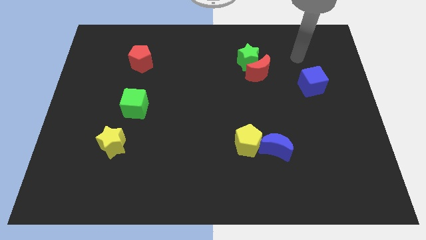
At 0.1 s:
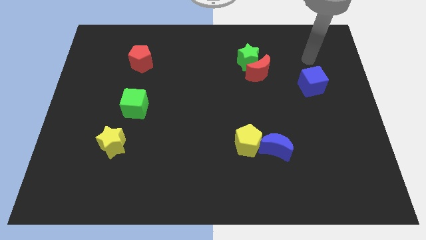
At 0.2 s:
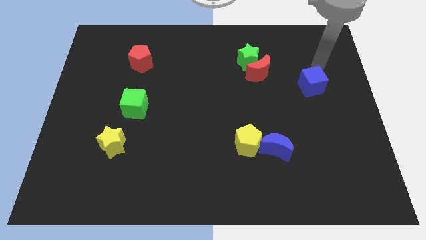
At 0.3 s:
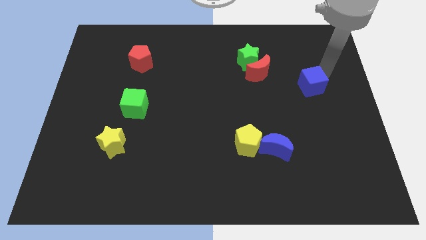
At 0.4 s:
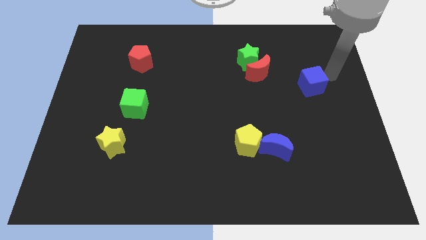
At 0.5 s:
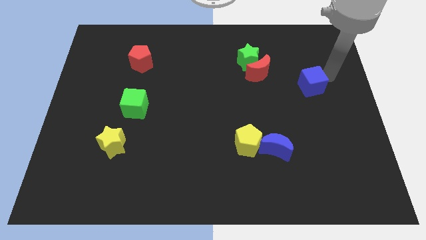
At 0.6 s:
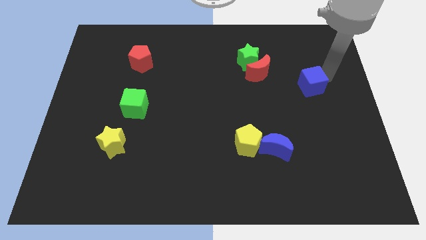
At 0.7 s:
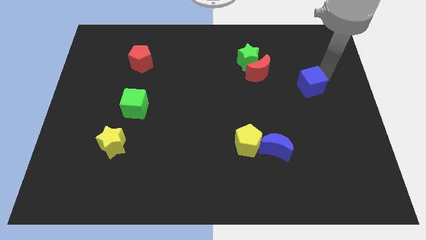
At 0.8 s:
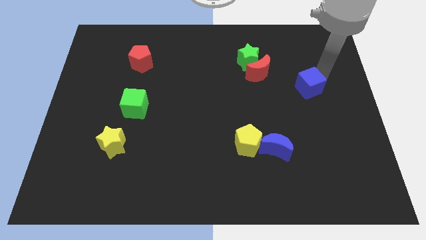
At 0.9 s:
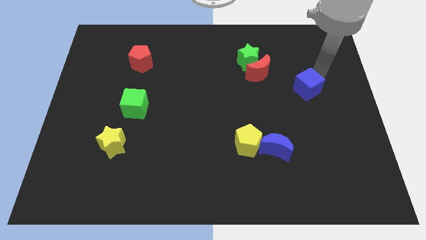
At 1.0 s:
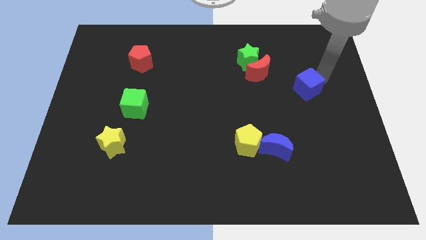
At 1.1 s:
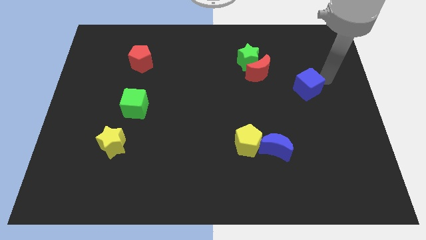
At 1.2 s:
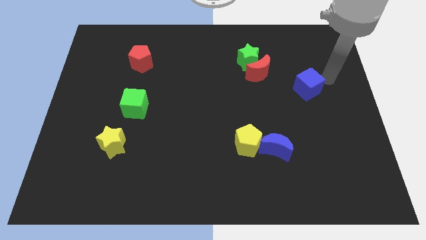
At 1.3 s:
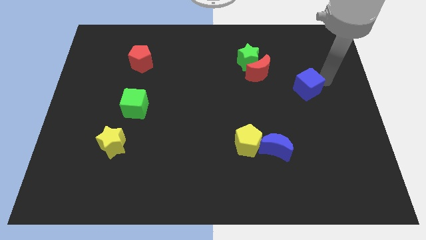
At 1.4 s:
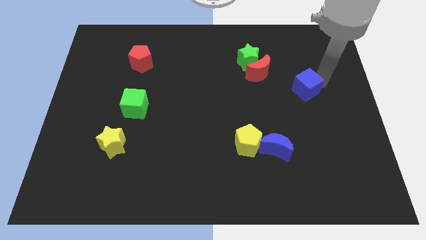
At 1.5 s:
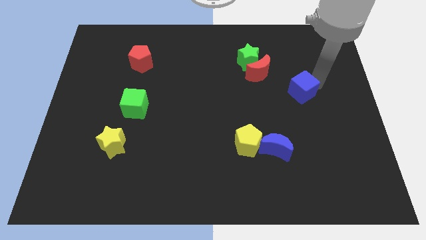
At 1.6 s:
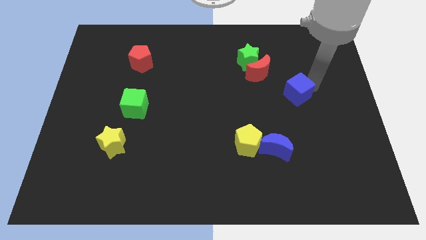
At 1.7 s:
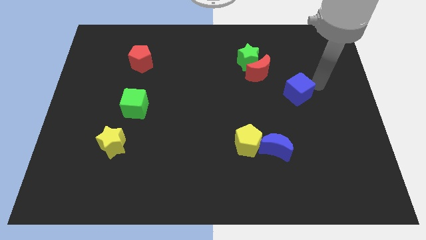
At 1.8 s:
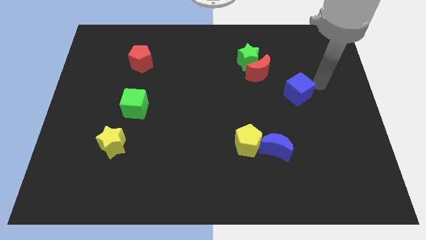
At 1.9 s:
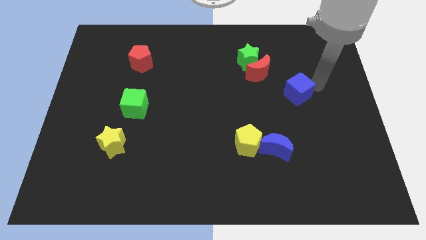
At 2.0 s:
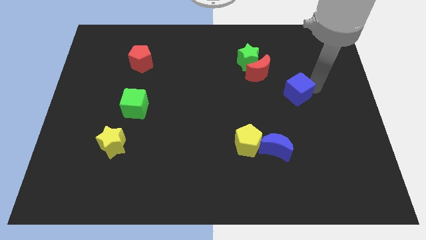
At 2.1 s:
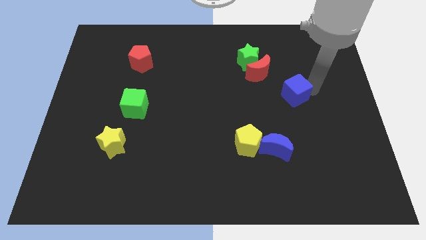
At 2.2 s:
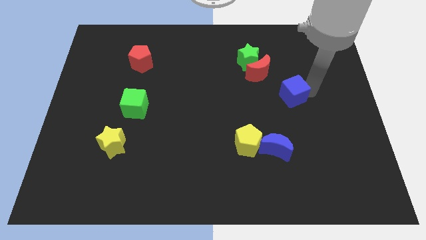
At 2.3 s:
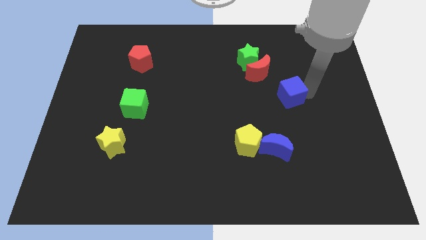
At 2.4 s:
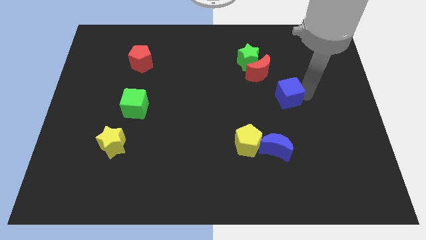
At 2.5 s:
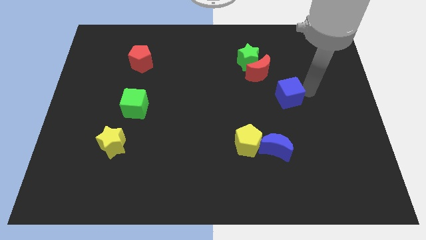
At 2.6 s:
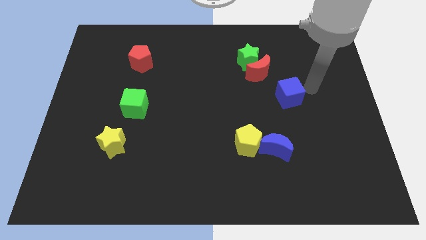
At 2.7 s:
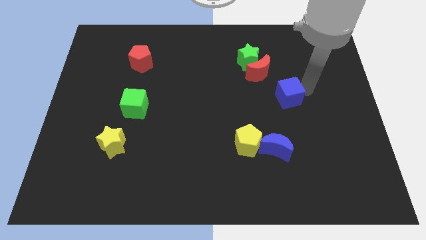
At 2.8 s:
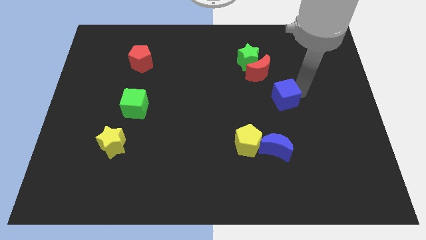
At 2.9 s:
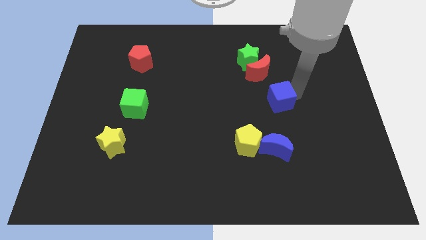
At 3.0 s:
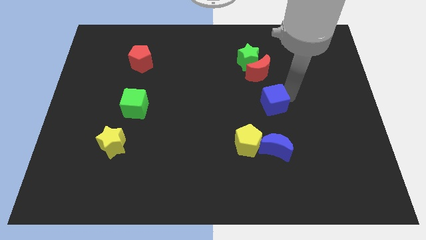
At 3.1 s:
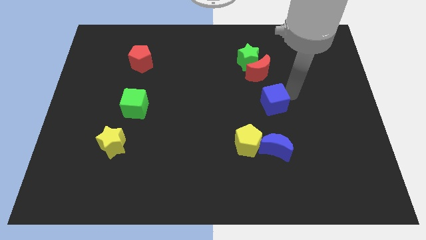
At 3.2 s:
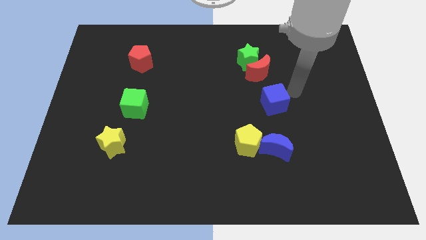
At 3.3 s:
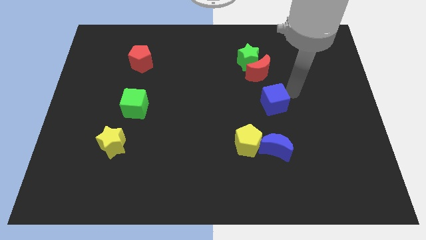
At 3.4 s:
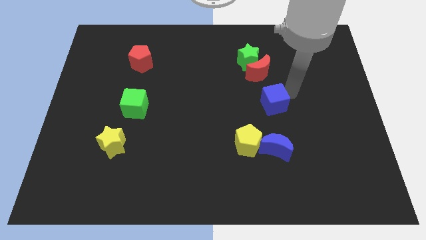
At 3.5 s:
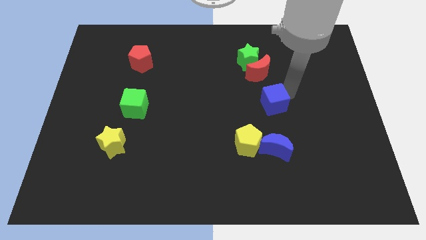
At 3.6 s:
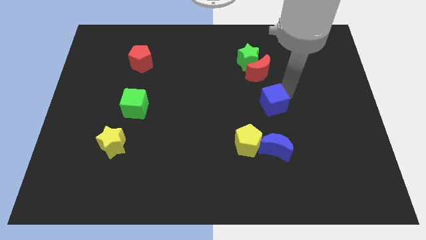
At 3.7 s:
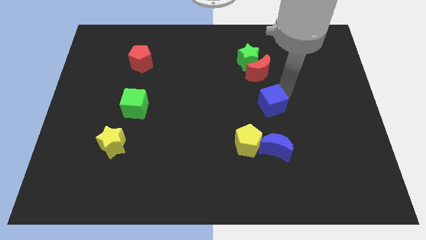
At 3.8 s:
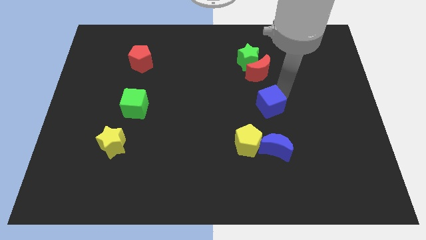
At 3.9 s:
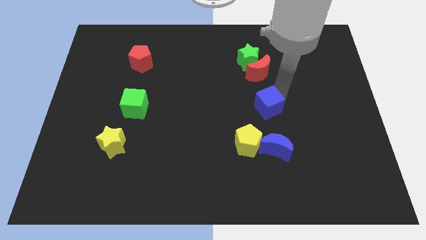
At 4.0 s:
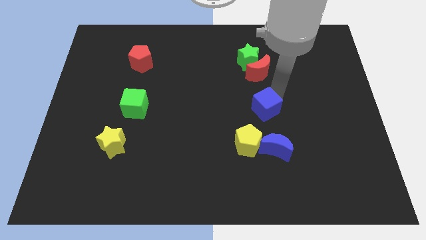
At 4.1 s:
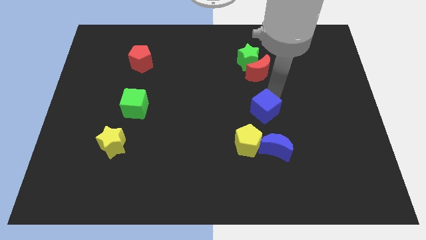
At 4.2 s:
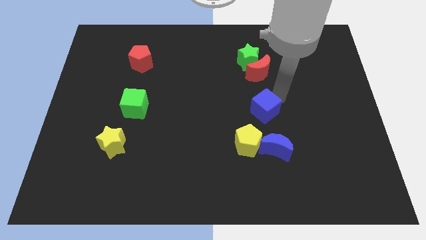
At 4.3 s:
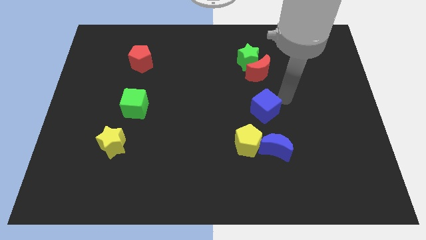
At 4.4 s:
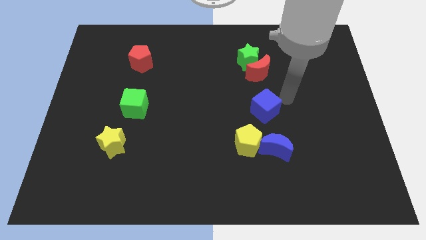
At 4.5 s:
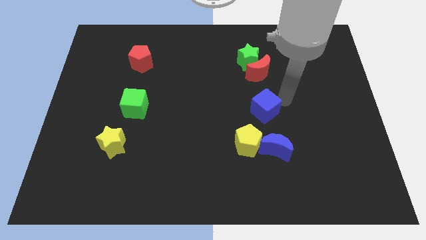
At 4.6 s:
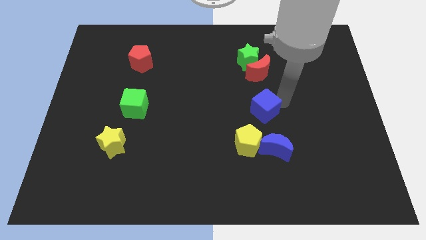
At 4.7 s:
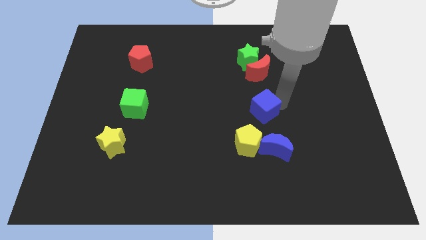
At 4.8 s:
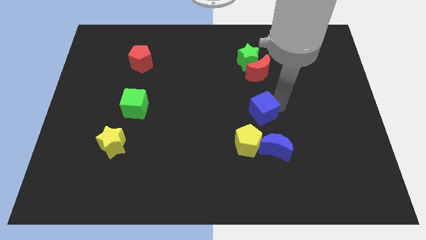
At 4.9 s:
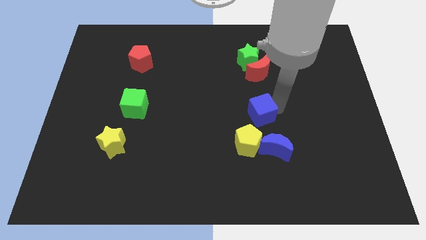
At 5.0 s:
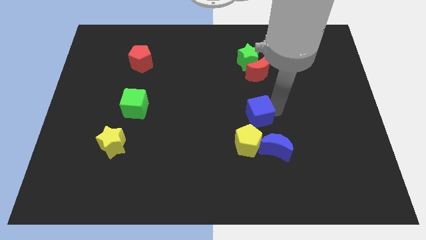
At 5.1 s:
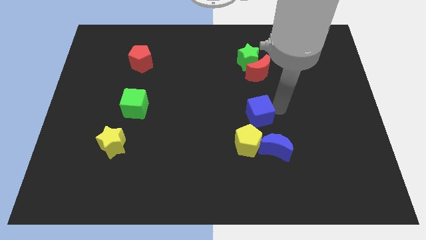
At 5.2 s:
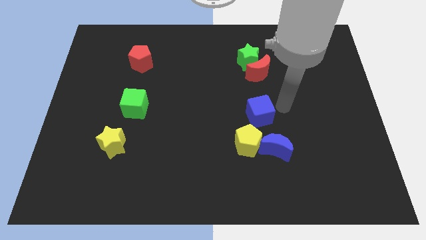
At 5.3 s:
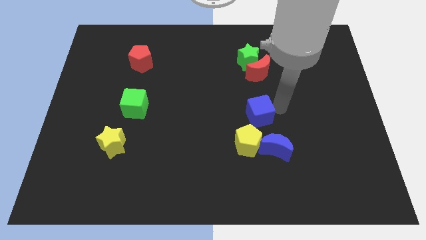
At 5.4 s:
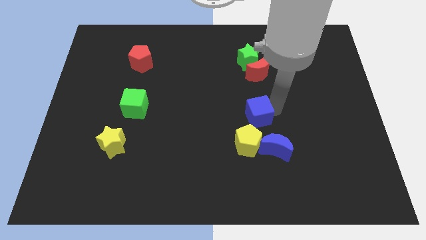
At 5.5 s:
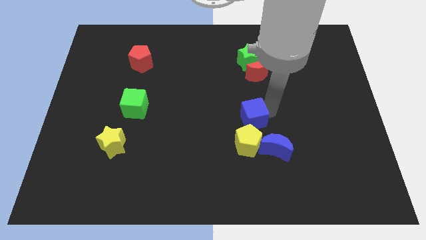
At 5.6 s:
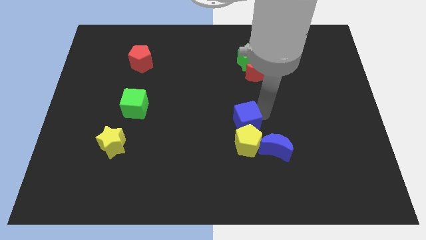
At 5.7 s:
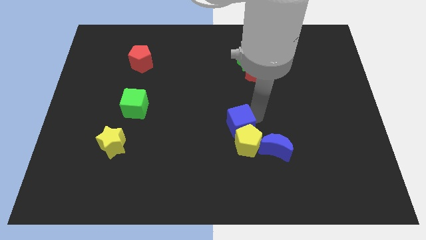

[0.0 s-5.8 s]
push the blue cube down and left diagonally

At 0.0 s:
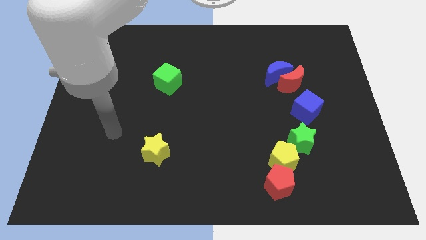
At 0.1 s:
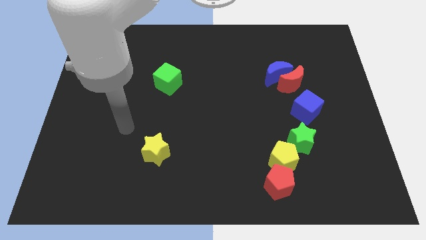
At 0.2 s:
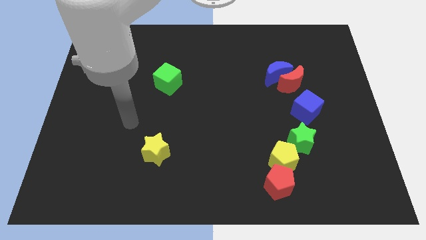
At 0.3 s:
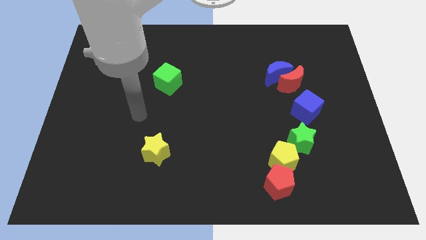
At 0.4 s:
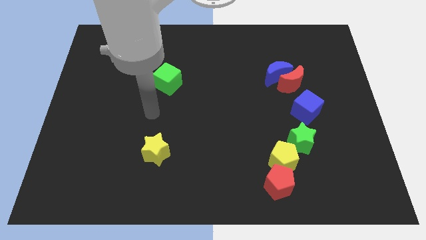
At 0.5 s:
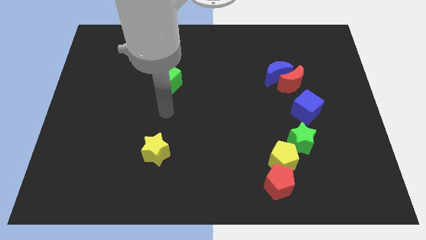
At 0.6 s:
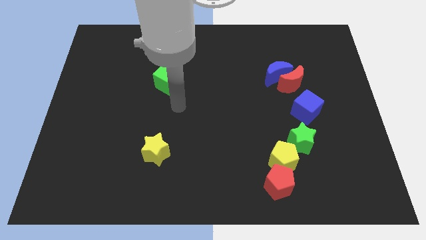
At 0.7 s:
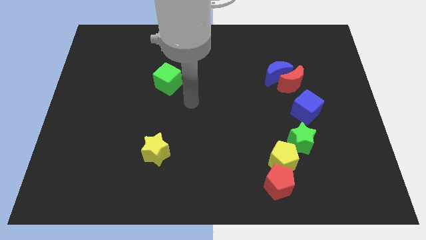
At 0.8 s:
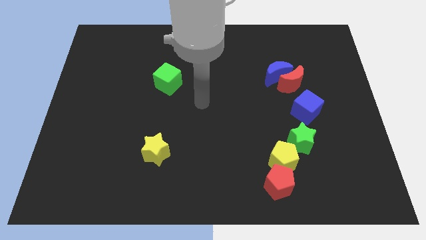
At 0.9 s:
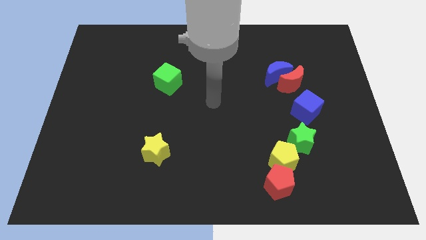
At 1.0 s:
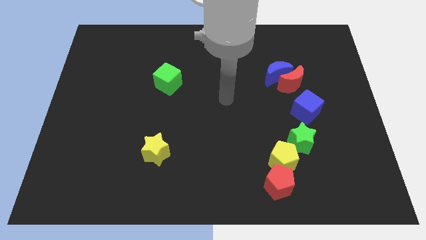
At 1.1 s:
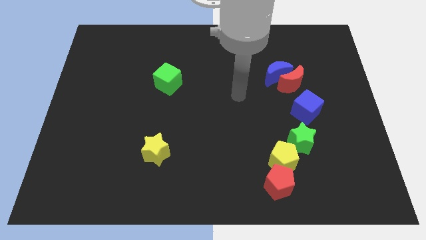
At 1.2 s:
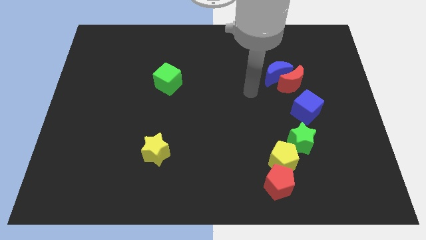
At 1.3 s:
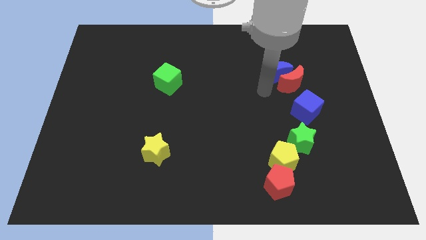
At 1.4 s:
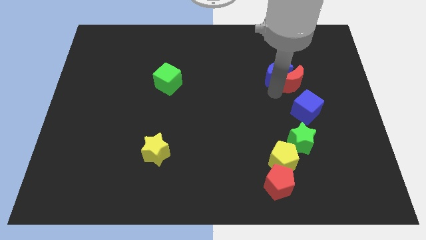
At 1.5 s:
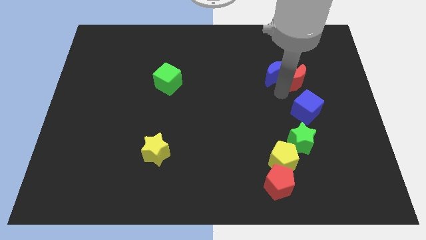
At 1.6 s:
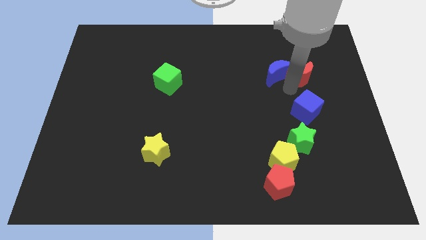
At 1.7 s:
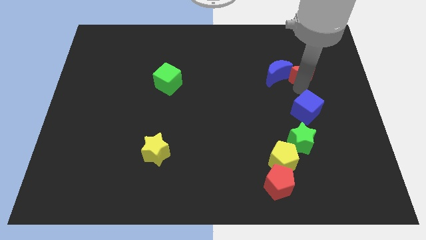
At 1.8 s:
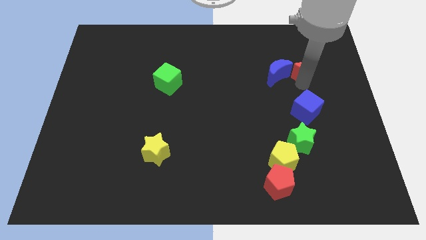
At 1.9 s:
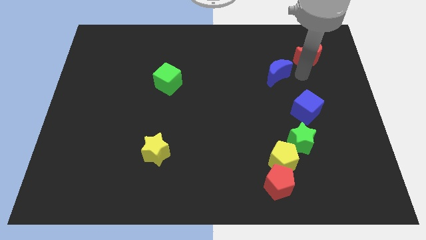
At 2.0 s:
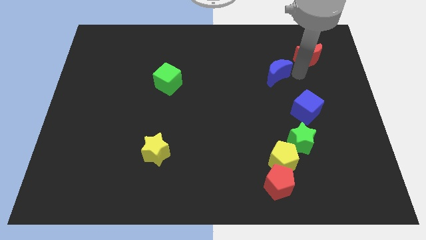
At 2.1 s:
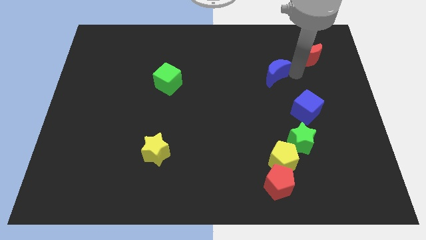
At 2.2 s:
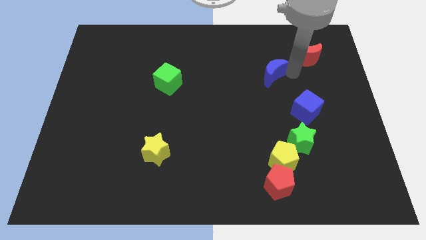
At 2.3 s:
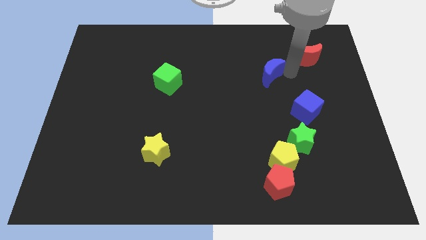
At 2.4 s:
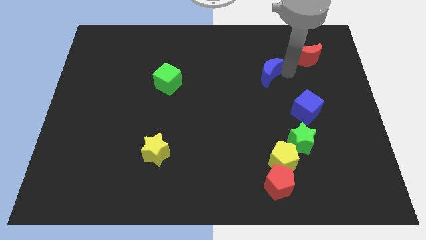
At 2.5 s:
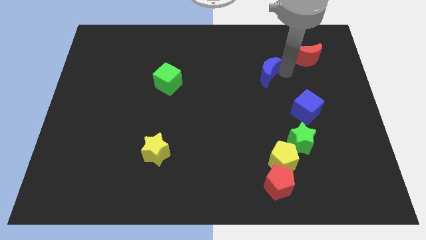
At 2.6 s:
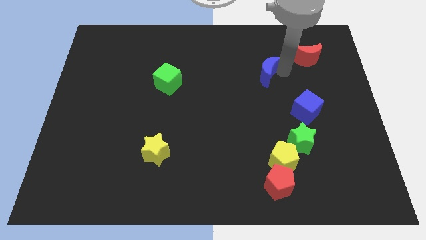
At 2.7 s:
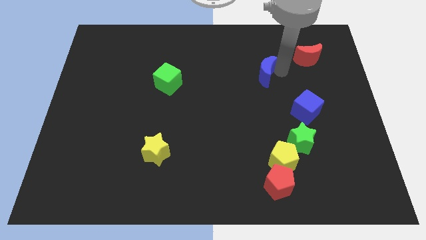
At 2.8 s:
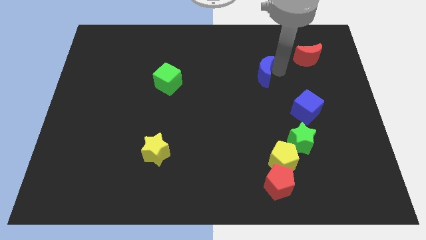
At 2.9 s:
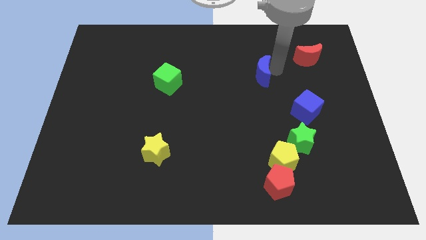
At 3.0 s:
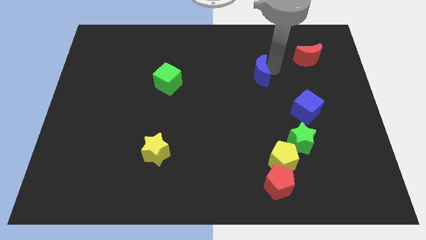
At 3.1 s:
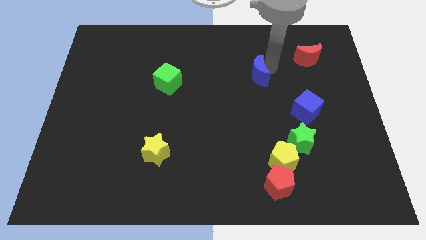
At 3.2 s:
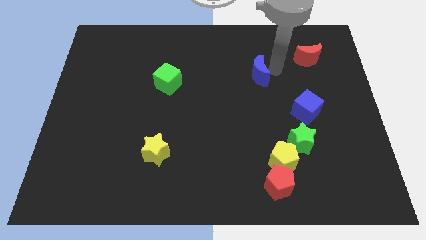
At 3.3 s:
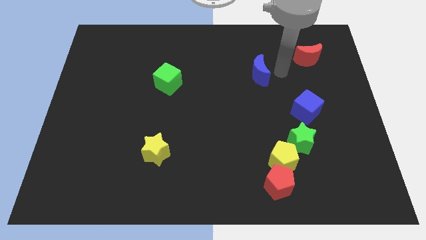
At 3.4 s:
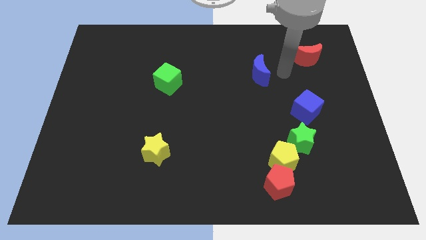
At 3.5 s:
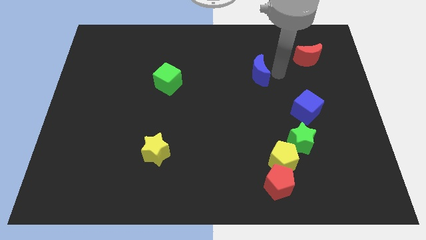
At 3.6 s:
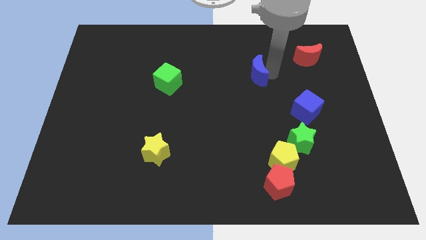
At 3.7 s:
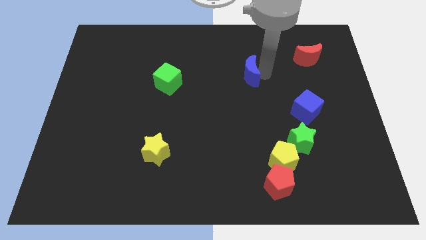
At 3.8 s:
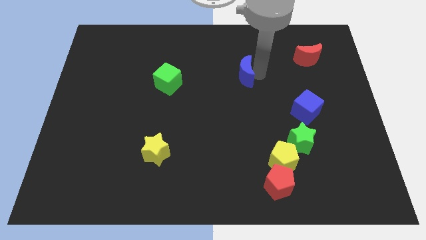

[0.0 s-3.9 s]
slightly slide the blue moon left
